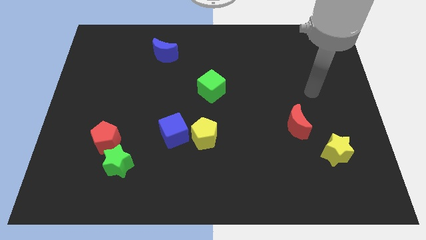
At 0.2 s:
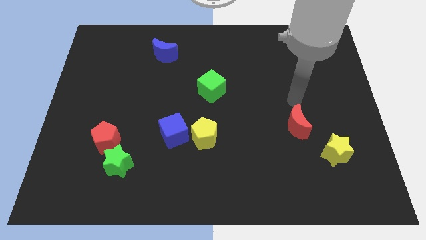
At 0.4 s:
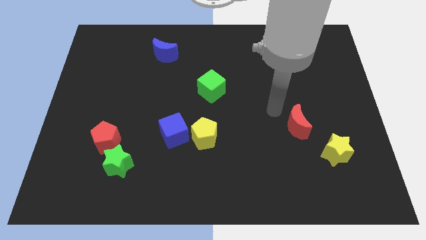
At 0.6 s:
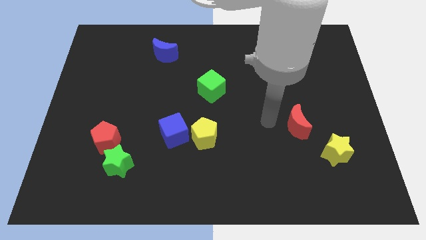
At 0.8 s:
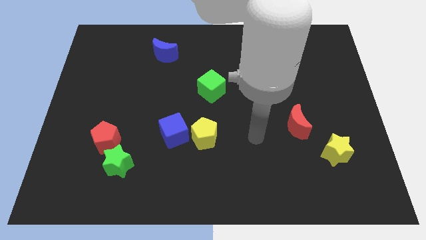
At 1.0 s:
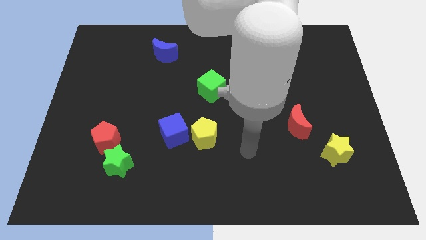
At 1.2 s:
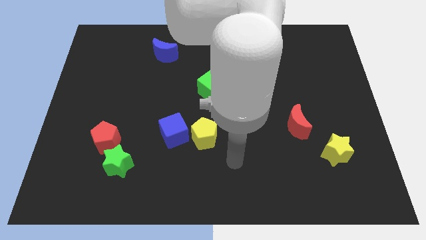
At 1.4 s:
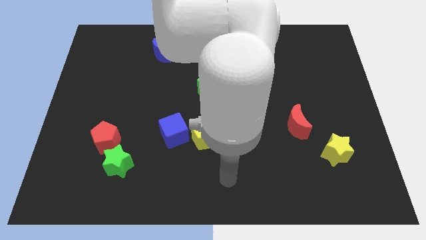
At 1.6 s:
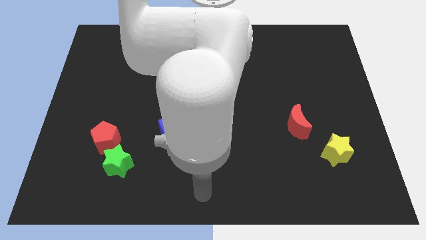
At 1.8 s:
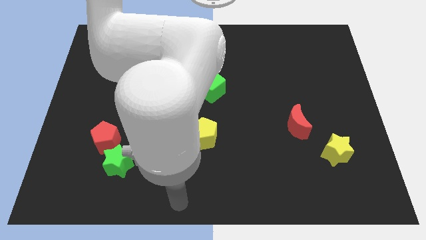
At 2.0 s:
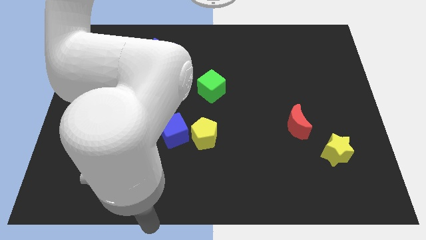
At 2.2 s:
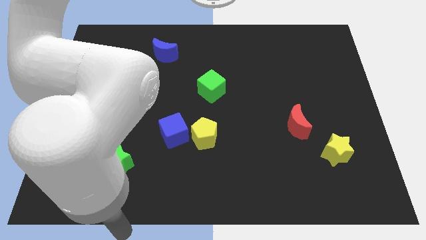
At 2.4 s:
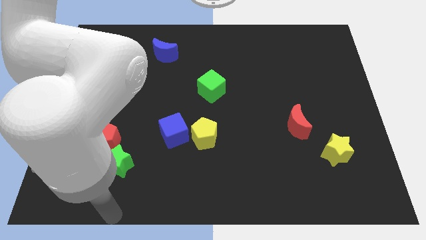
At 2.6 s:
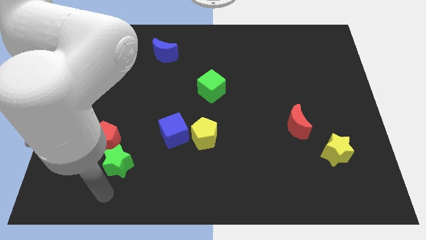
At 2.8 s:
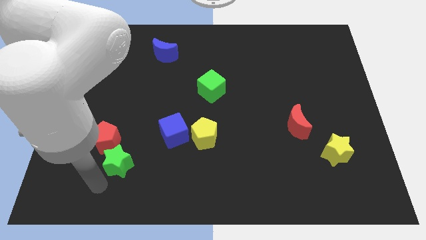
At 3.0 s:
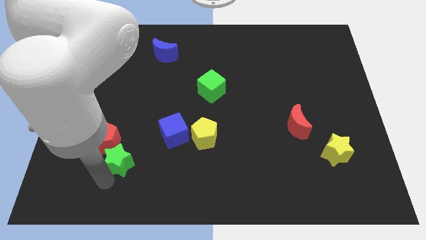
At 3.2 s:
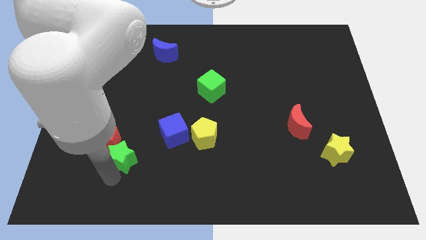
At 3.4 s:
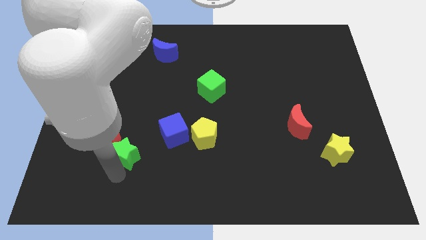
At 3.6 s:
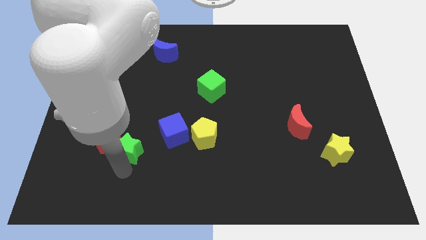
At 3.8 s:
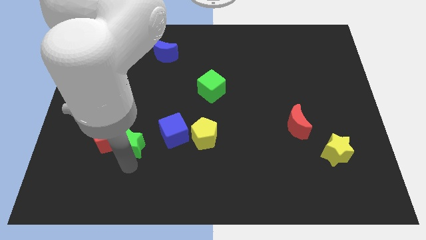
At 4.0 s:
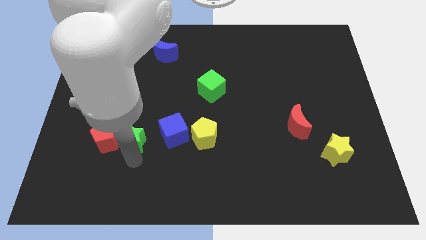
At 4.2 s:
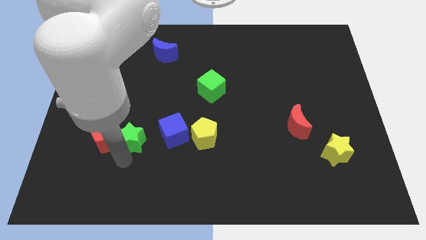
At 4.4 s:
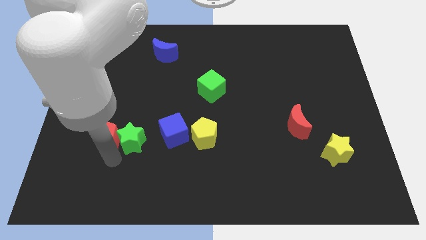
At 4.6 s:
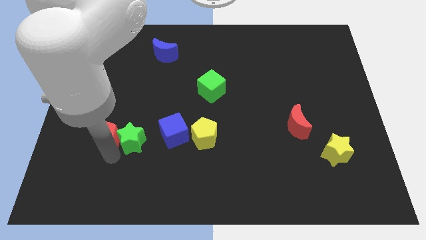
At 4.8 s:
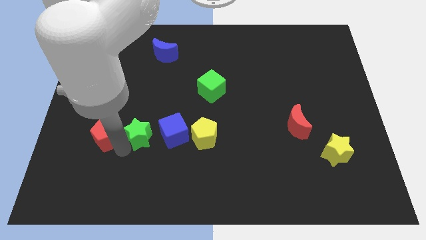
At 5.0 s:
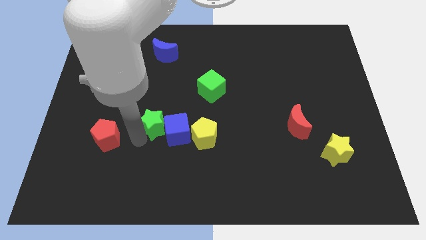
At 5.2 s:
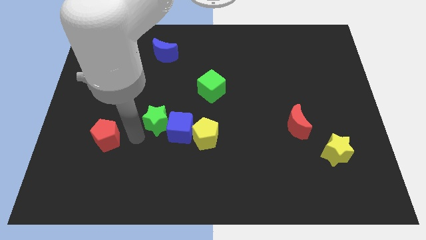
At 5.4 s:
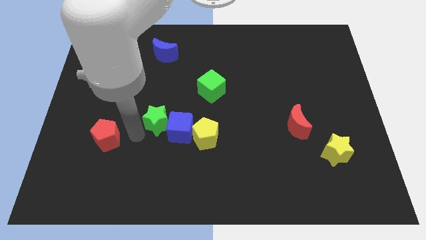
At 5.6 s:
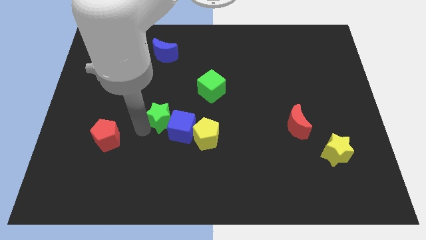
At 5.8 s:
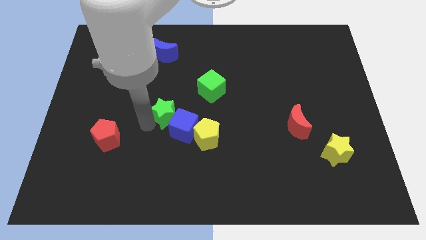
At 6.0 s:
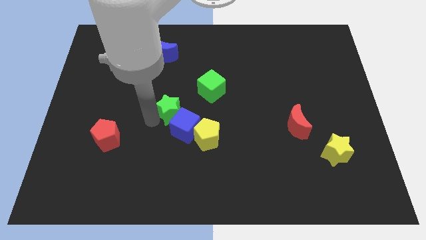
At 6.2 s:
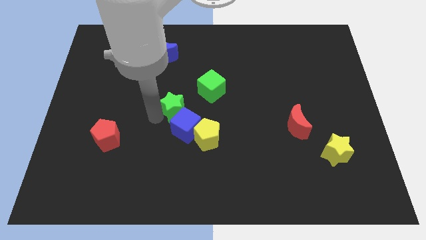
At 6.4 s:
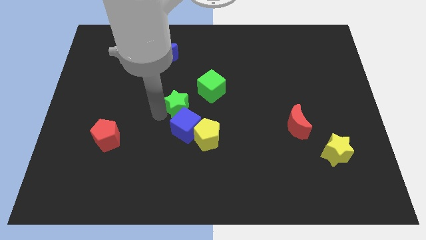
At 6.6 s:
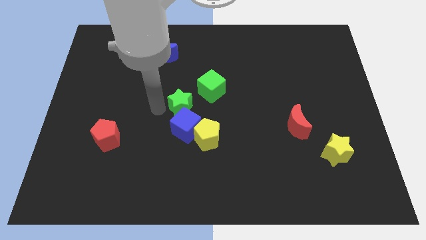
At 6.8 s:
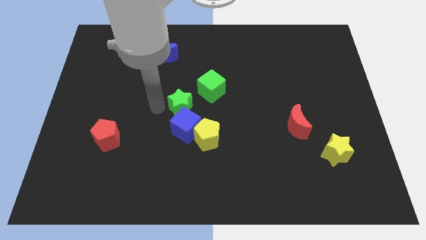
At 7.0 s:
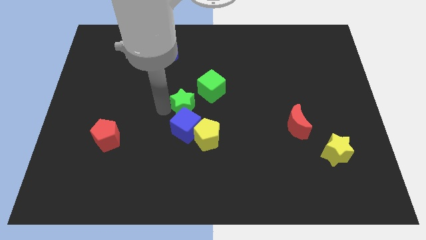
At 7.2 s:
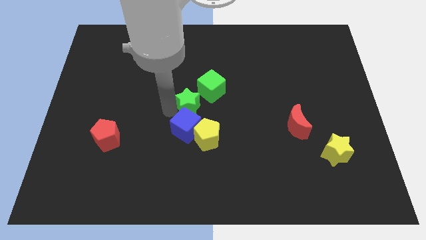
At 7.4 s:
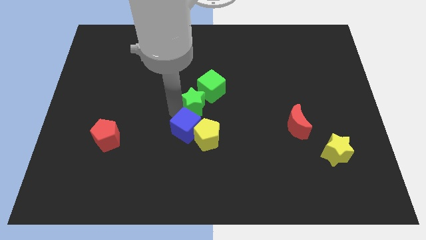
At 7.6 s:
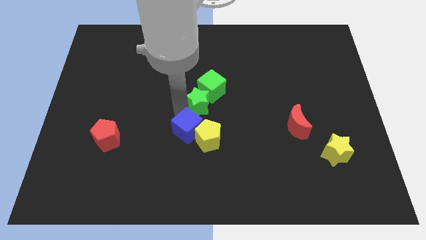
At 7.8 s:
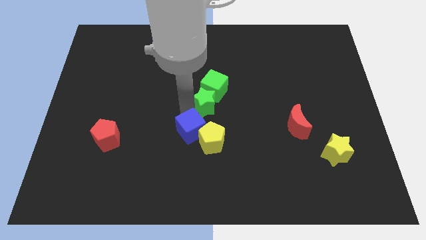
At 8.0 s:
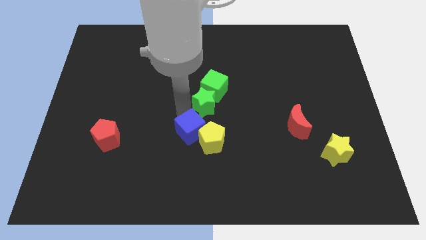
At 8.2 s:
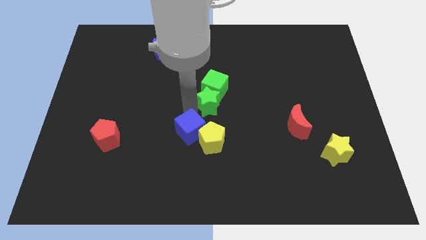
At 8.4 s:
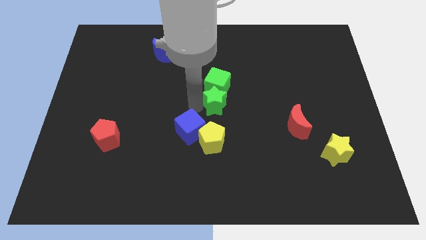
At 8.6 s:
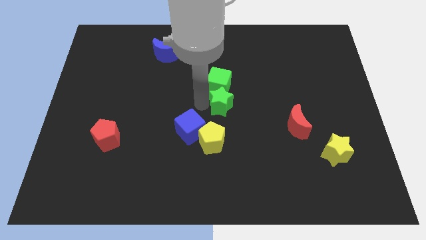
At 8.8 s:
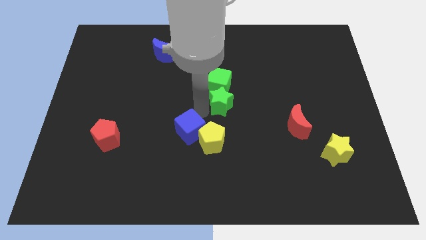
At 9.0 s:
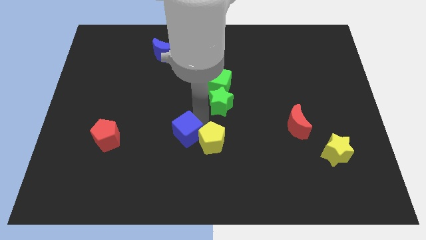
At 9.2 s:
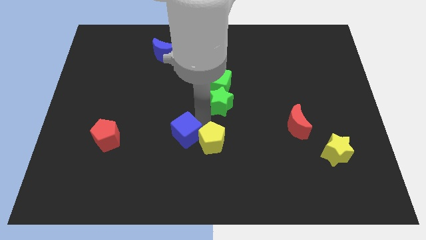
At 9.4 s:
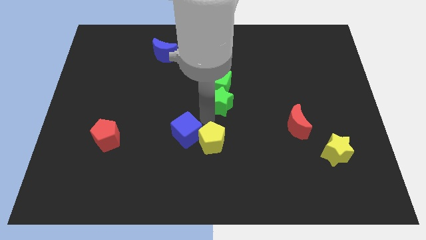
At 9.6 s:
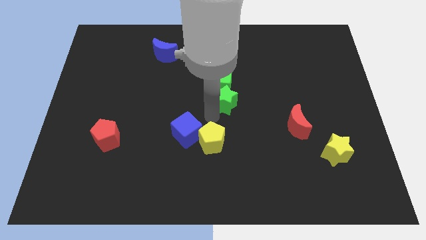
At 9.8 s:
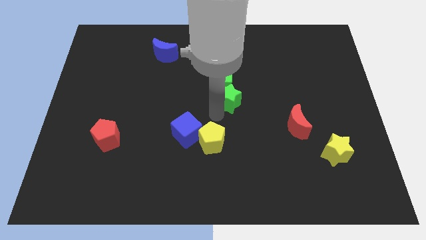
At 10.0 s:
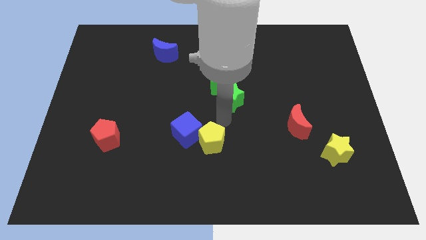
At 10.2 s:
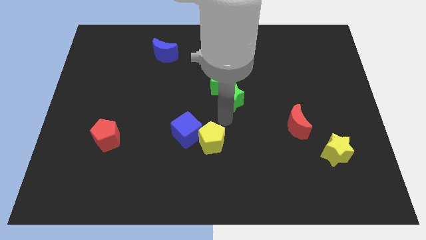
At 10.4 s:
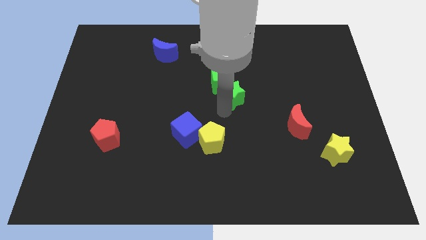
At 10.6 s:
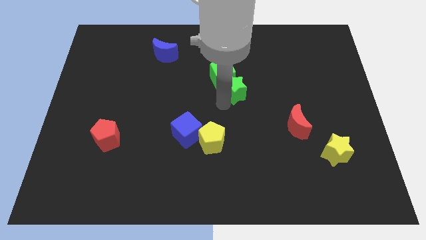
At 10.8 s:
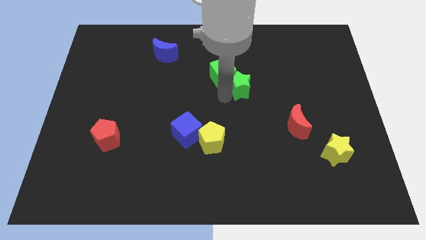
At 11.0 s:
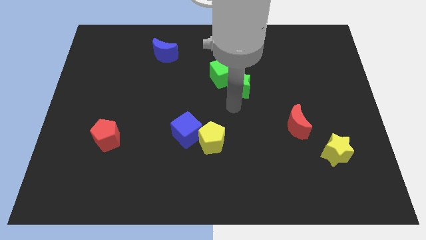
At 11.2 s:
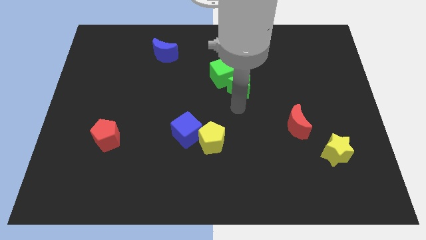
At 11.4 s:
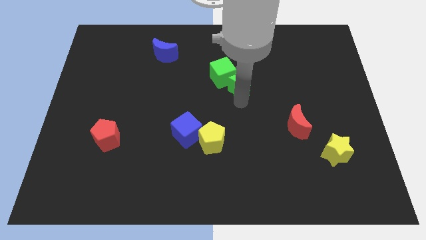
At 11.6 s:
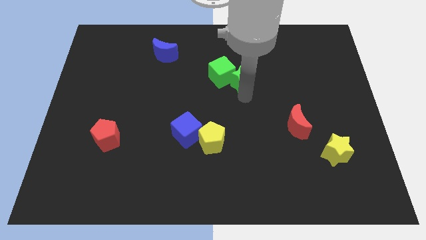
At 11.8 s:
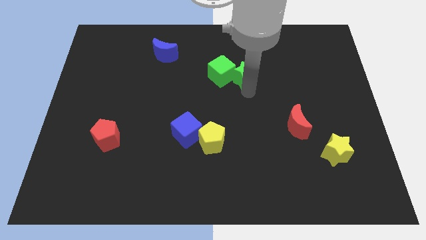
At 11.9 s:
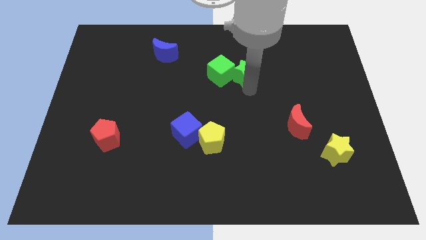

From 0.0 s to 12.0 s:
push the green star to the top right side of the green cube

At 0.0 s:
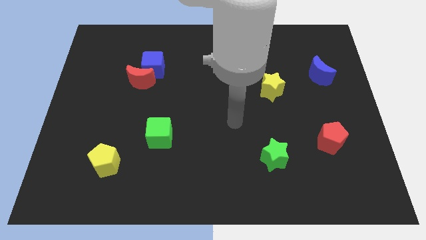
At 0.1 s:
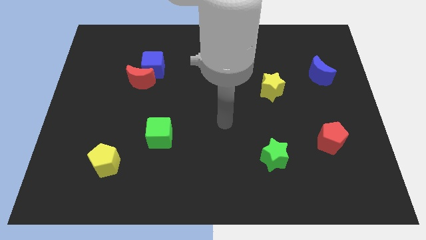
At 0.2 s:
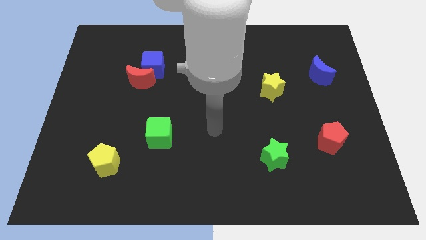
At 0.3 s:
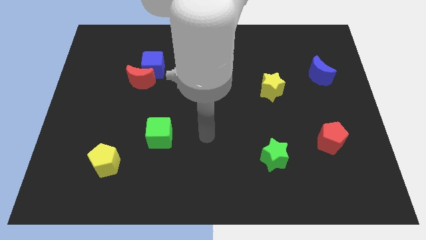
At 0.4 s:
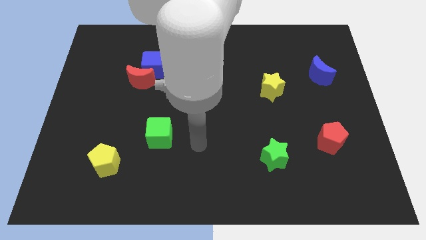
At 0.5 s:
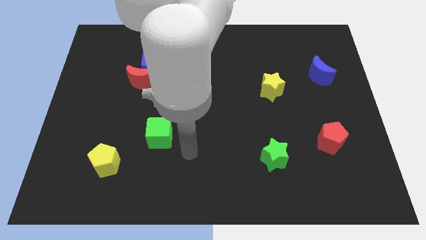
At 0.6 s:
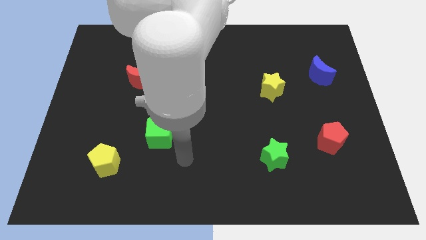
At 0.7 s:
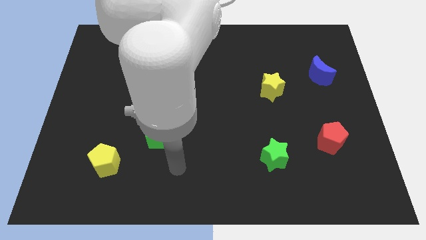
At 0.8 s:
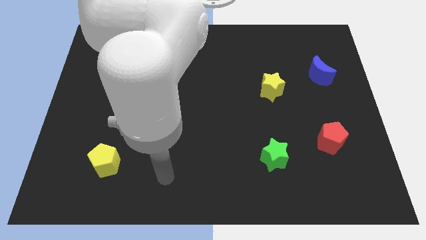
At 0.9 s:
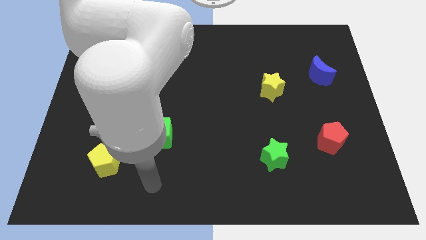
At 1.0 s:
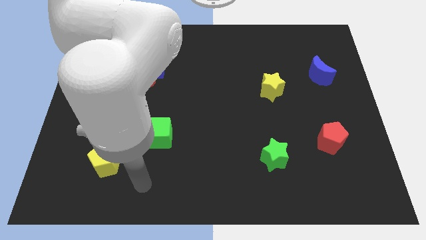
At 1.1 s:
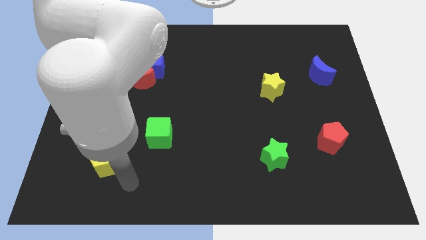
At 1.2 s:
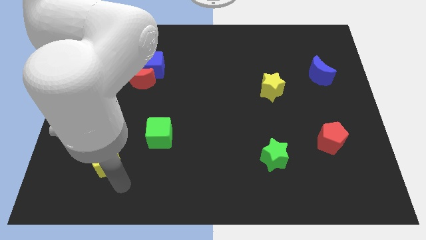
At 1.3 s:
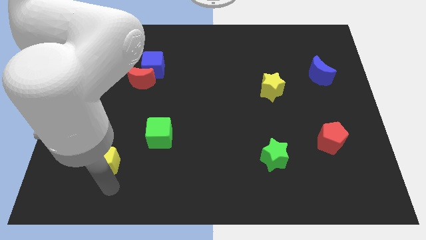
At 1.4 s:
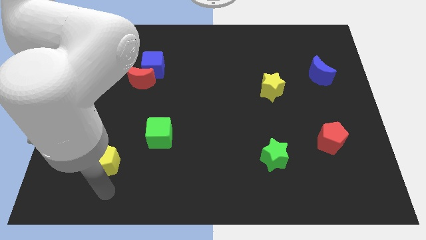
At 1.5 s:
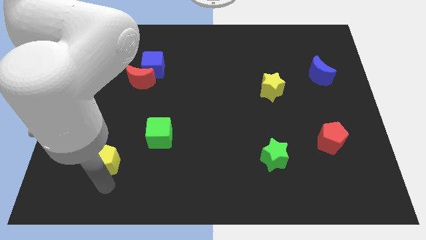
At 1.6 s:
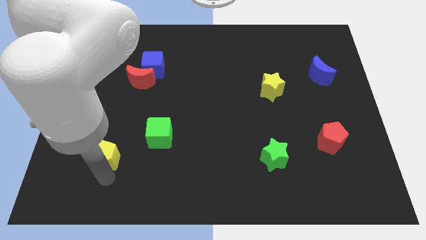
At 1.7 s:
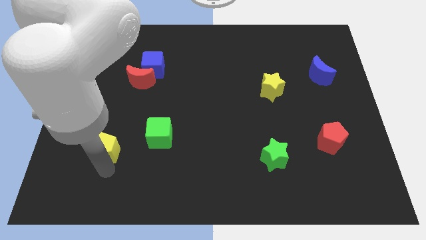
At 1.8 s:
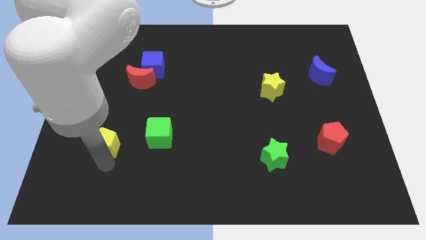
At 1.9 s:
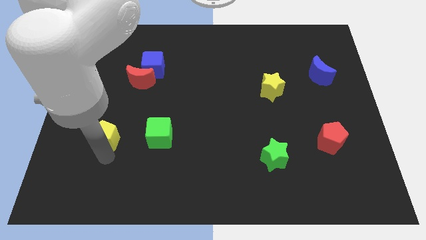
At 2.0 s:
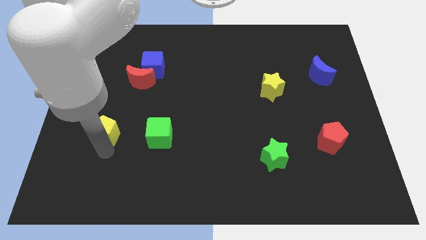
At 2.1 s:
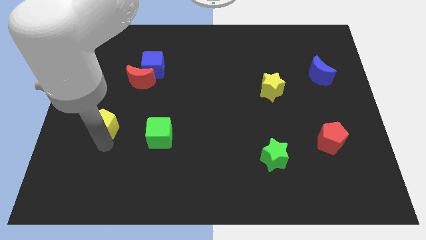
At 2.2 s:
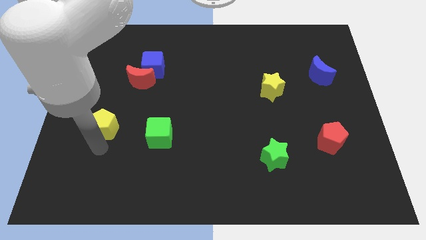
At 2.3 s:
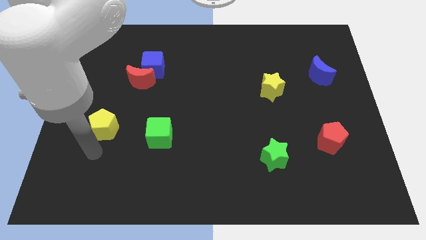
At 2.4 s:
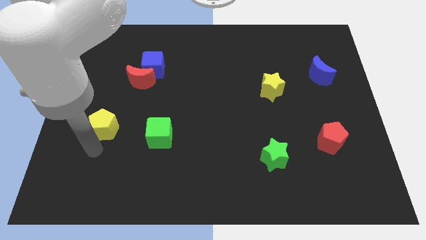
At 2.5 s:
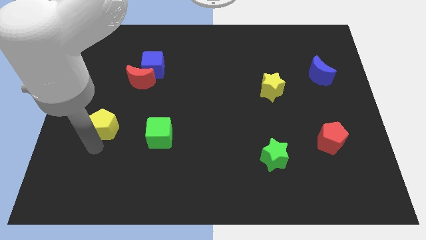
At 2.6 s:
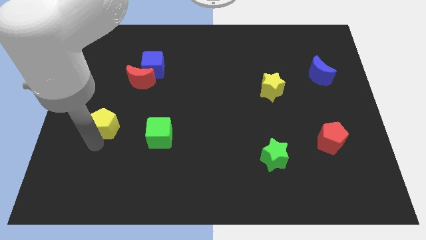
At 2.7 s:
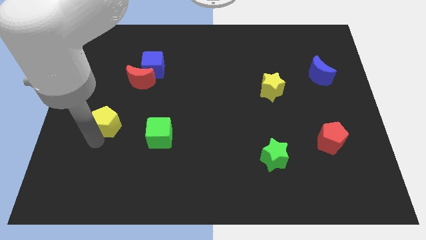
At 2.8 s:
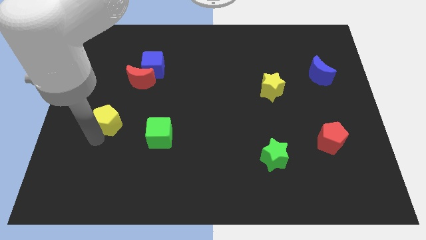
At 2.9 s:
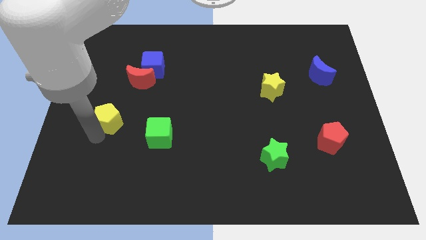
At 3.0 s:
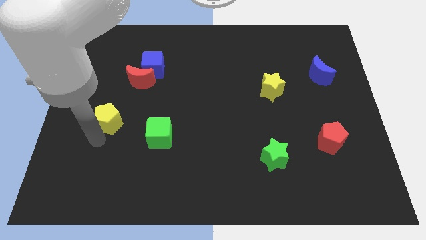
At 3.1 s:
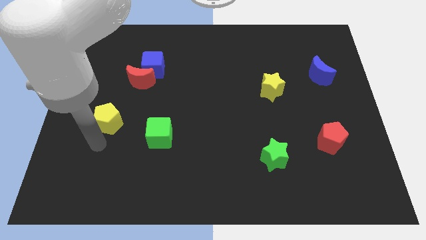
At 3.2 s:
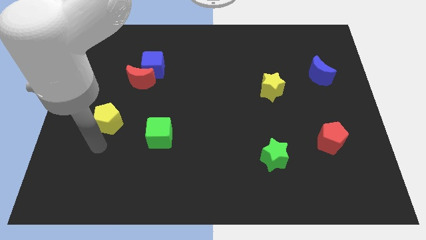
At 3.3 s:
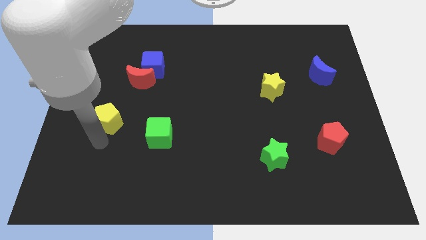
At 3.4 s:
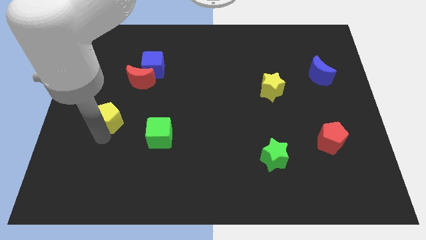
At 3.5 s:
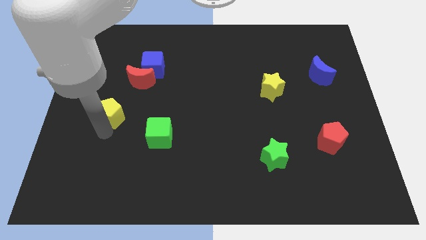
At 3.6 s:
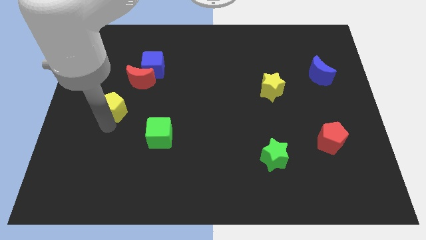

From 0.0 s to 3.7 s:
move the yellow pentagon to the bottom left of the red moon
